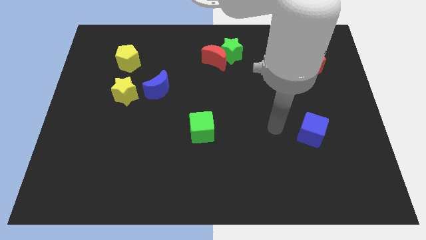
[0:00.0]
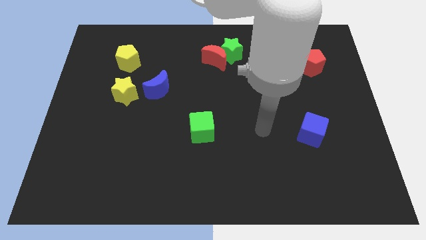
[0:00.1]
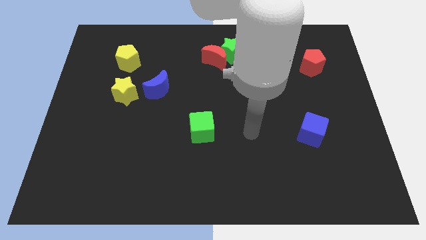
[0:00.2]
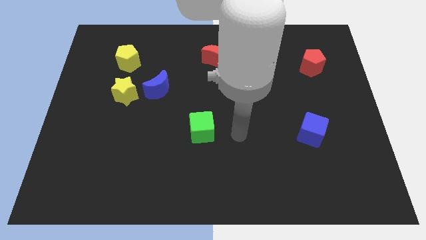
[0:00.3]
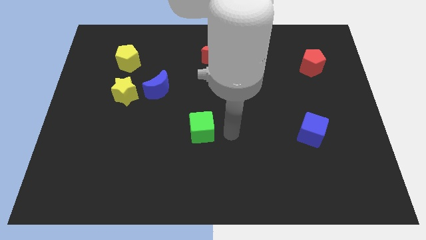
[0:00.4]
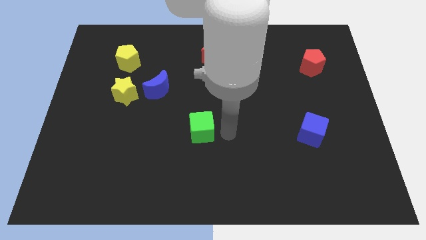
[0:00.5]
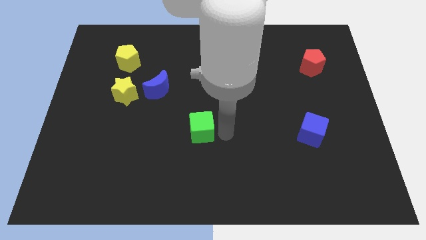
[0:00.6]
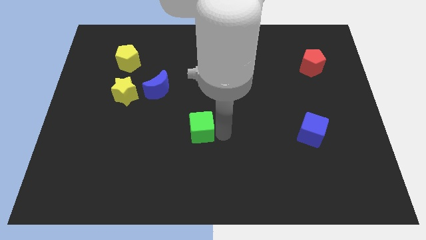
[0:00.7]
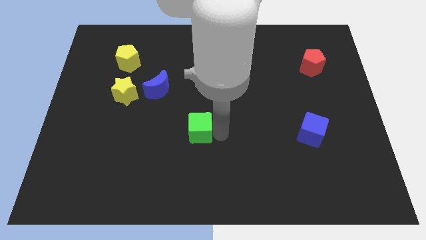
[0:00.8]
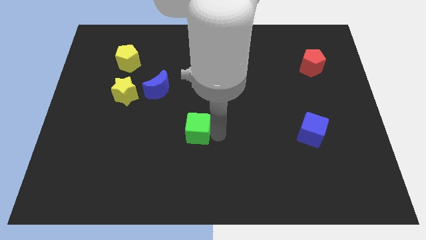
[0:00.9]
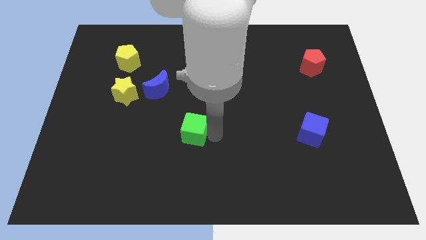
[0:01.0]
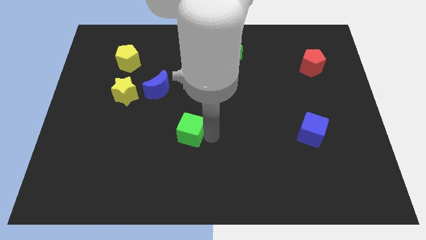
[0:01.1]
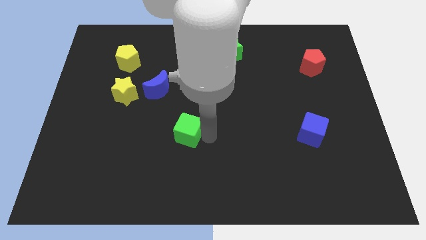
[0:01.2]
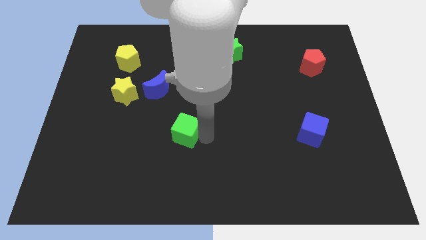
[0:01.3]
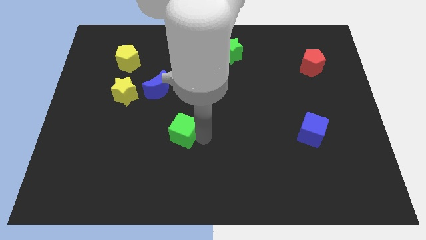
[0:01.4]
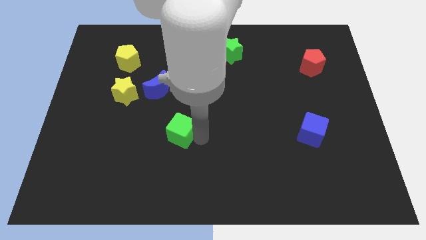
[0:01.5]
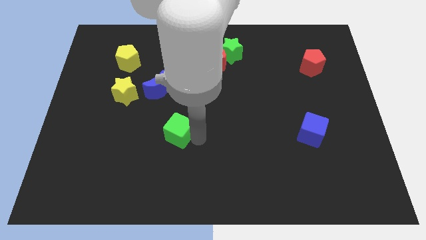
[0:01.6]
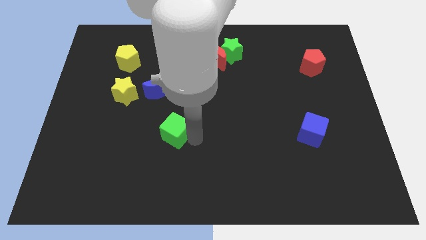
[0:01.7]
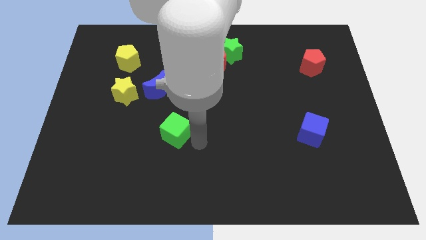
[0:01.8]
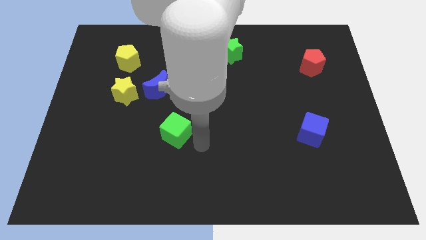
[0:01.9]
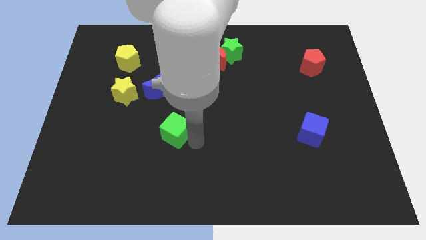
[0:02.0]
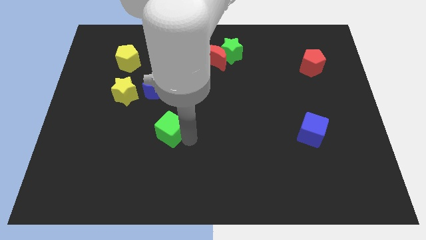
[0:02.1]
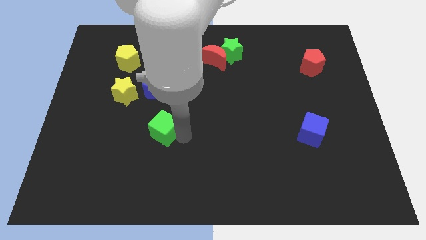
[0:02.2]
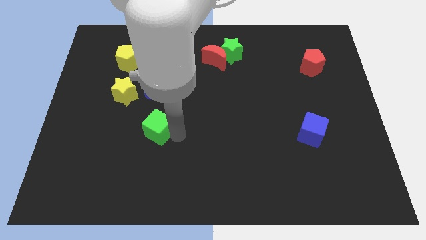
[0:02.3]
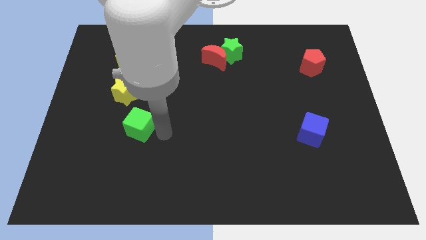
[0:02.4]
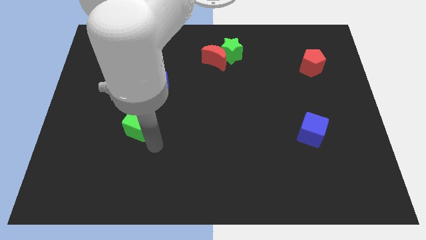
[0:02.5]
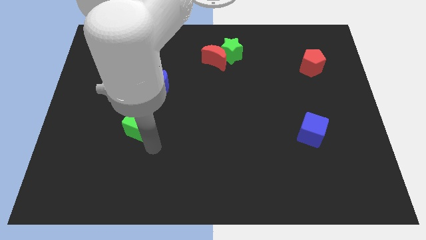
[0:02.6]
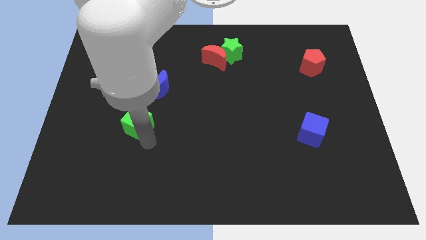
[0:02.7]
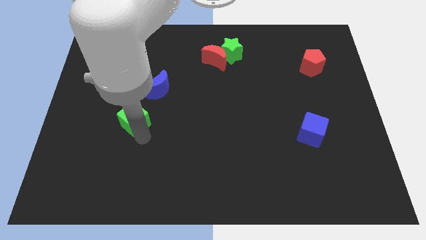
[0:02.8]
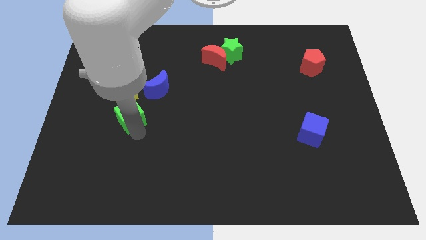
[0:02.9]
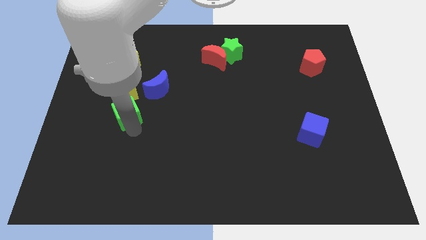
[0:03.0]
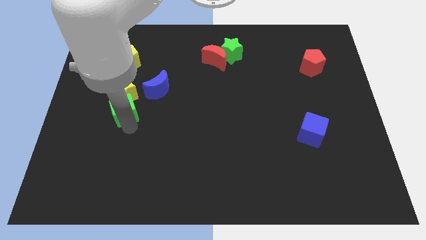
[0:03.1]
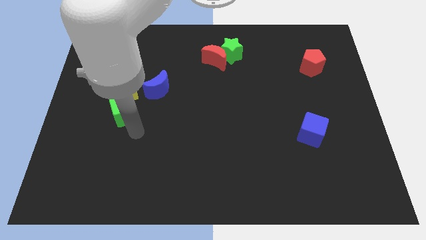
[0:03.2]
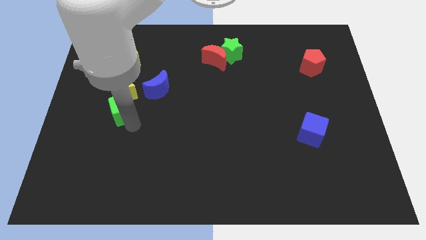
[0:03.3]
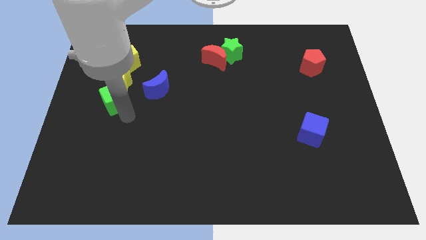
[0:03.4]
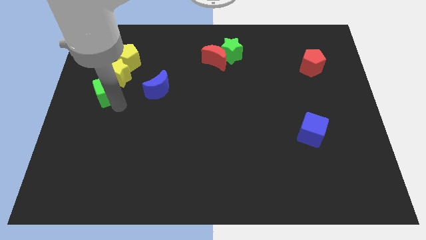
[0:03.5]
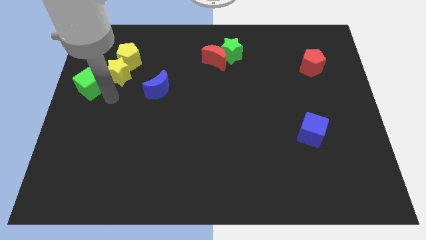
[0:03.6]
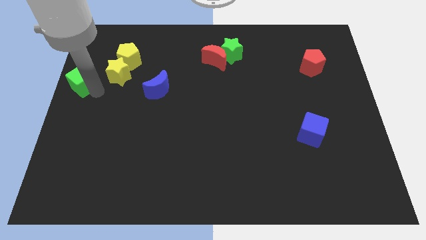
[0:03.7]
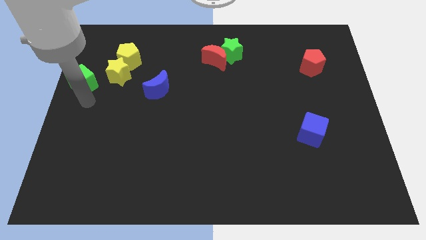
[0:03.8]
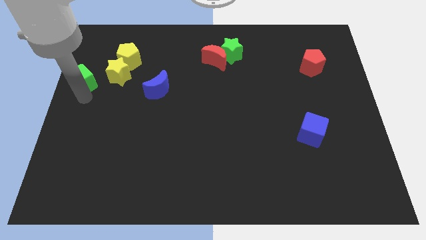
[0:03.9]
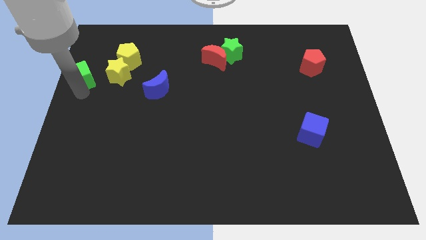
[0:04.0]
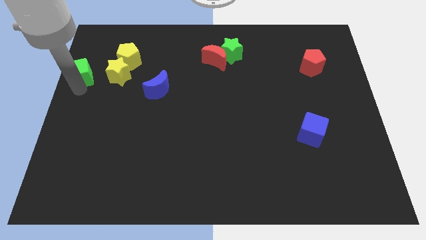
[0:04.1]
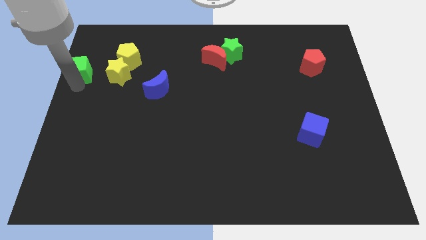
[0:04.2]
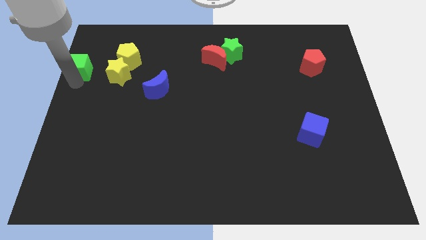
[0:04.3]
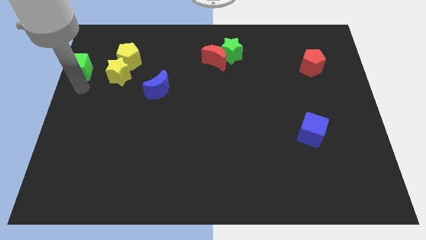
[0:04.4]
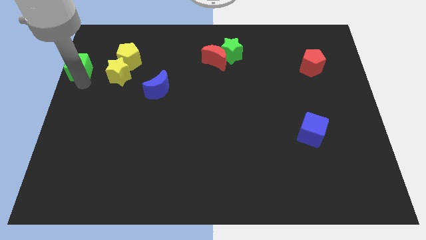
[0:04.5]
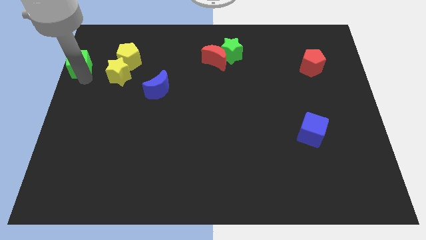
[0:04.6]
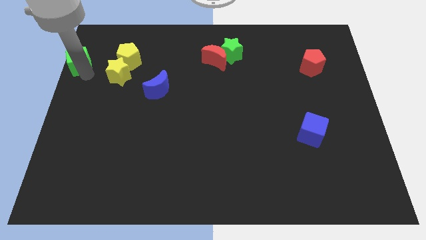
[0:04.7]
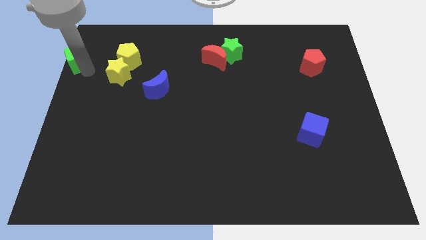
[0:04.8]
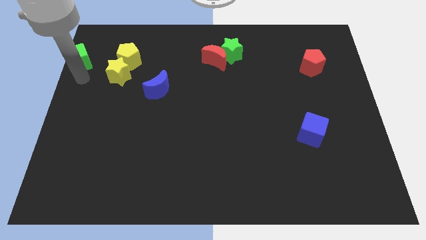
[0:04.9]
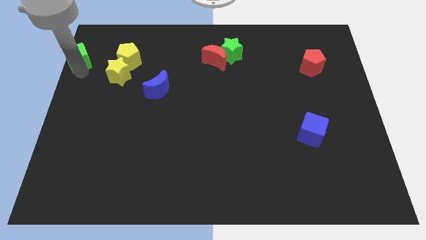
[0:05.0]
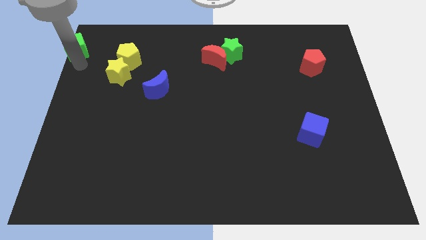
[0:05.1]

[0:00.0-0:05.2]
move the green cube to the top left

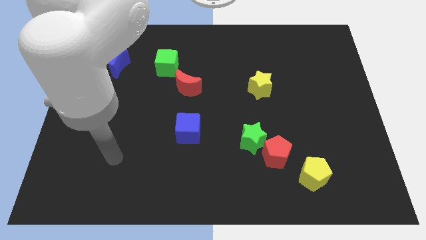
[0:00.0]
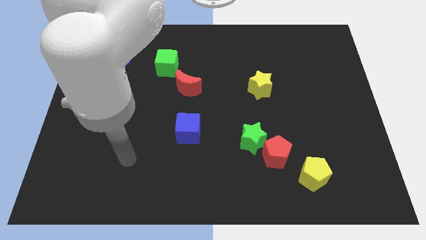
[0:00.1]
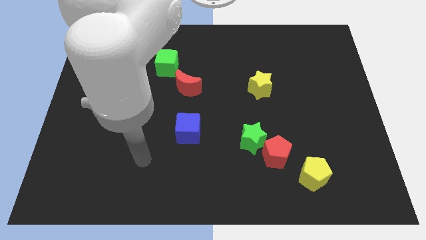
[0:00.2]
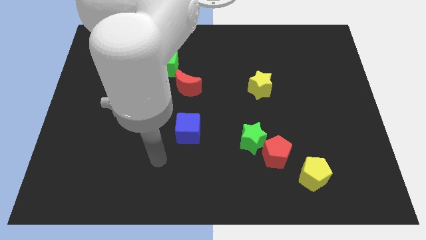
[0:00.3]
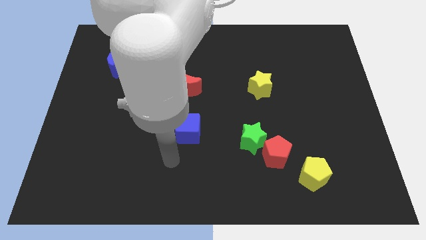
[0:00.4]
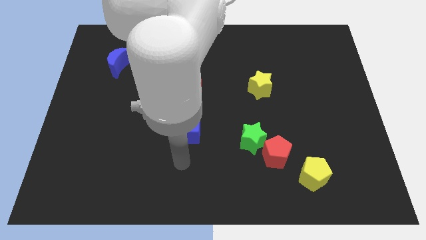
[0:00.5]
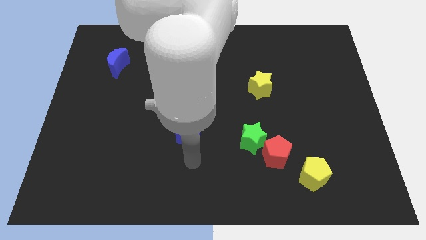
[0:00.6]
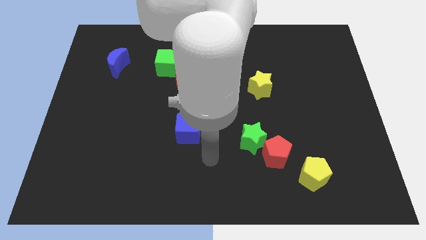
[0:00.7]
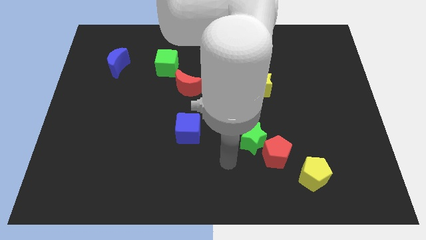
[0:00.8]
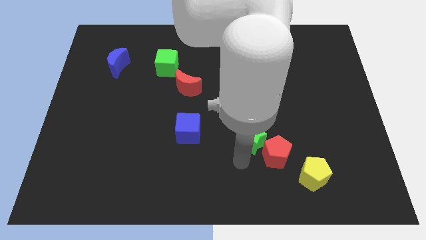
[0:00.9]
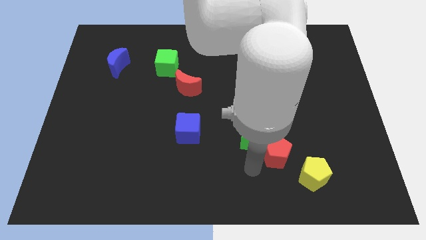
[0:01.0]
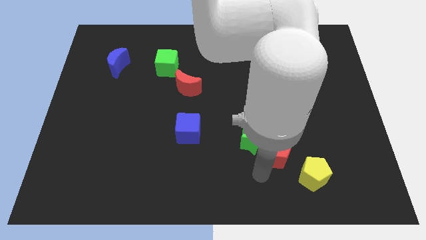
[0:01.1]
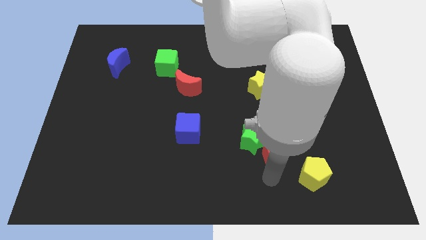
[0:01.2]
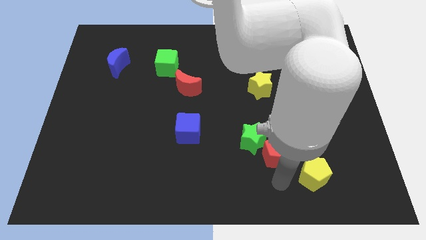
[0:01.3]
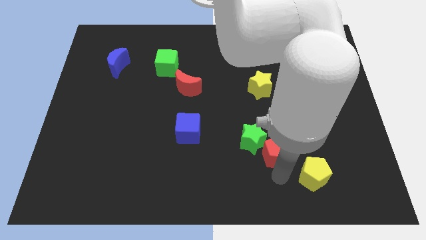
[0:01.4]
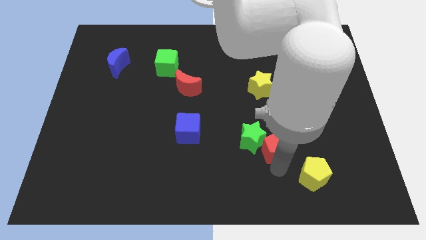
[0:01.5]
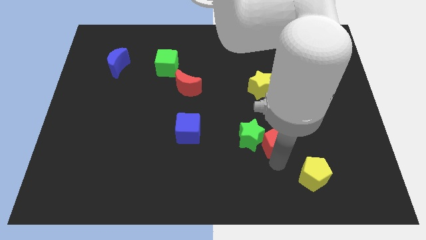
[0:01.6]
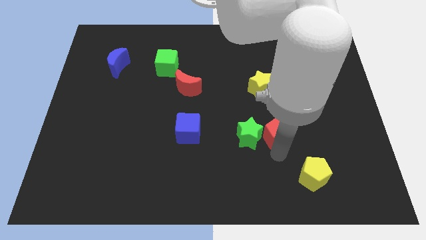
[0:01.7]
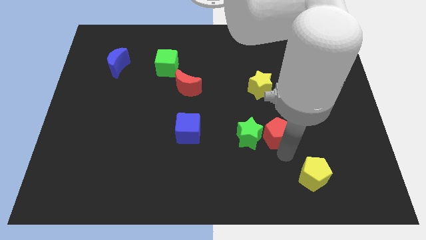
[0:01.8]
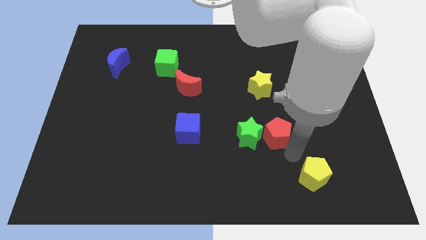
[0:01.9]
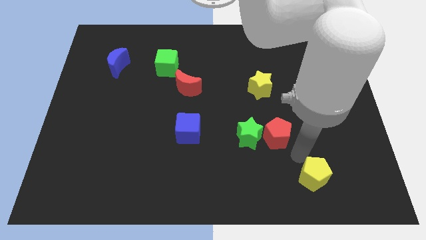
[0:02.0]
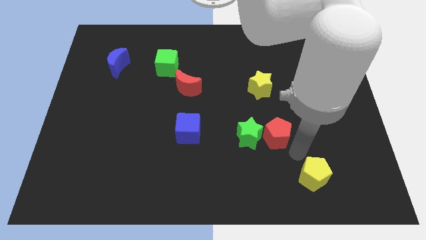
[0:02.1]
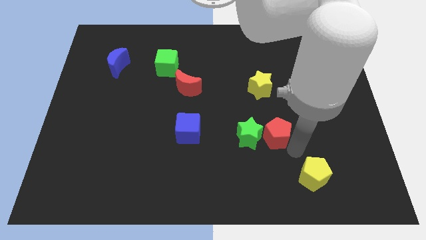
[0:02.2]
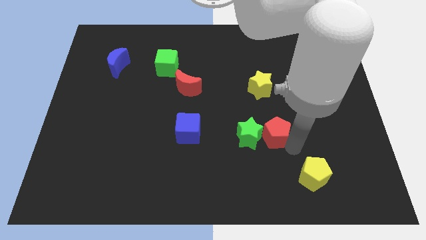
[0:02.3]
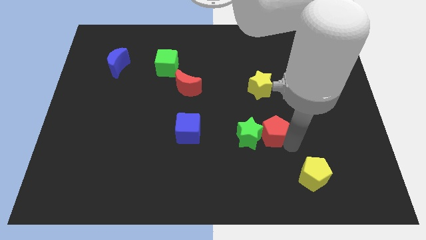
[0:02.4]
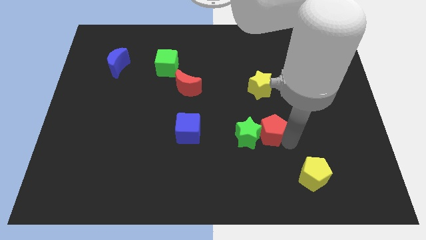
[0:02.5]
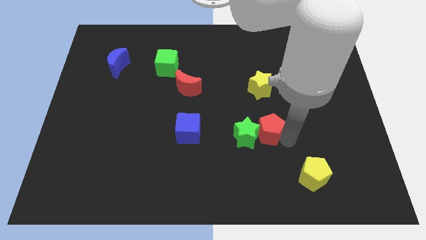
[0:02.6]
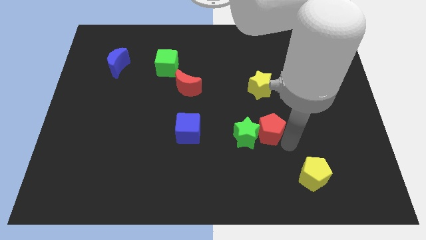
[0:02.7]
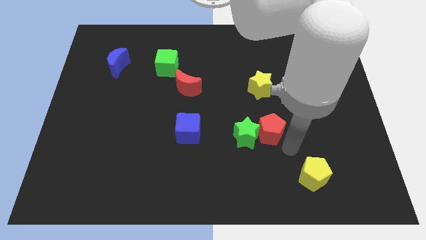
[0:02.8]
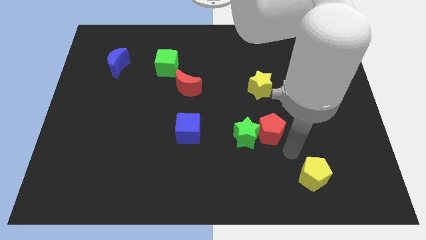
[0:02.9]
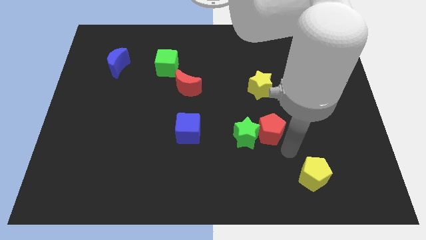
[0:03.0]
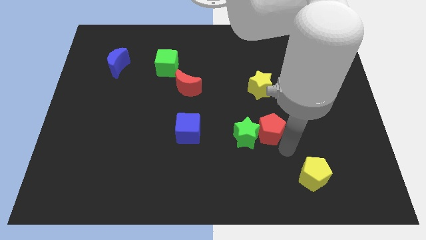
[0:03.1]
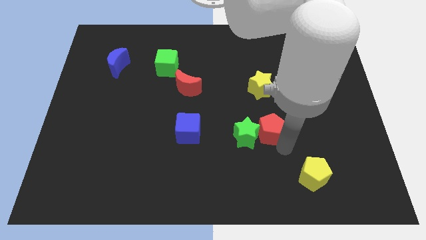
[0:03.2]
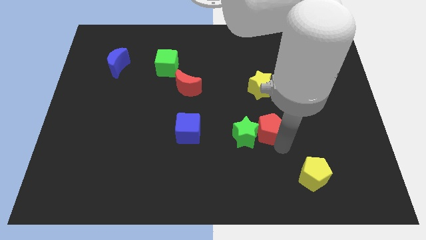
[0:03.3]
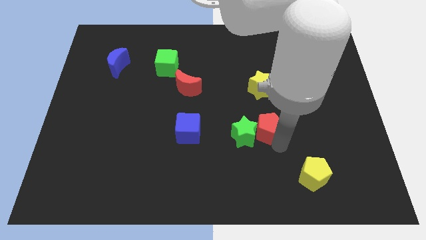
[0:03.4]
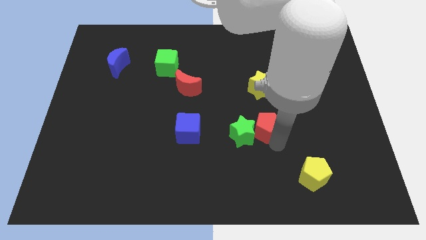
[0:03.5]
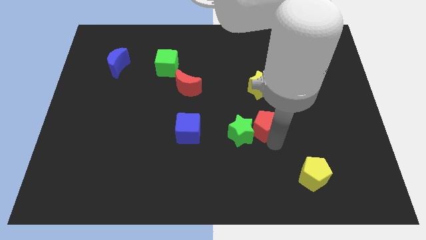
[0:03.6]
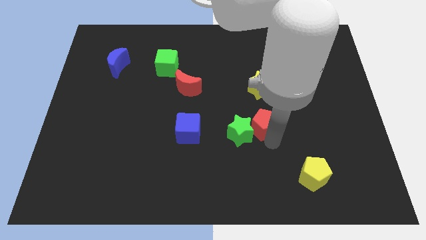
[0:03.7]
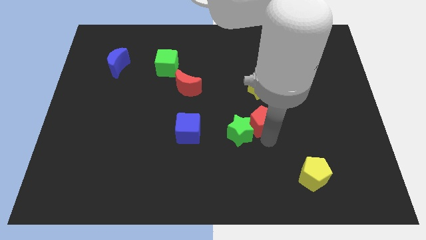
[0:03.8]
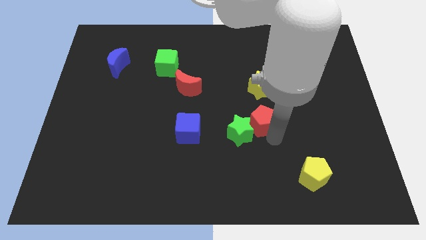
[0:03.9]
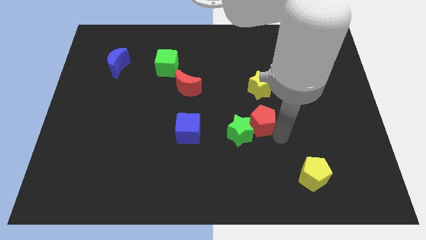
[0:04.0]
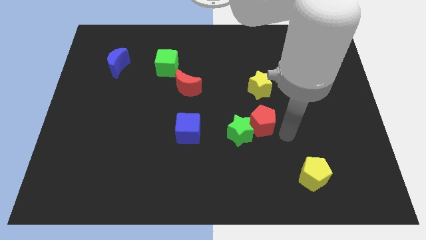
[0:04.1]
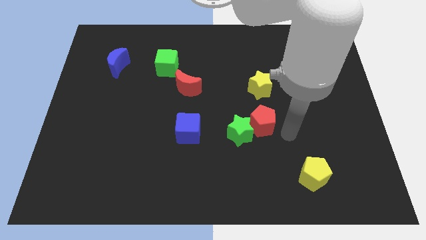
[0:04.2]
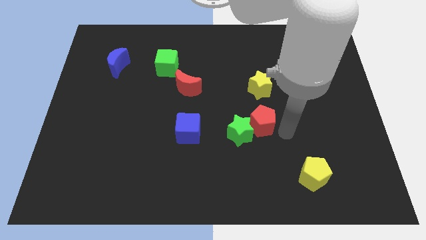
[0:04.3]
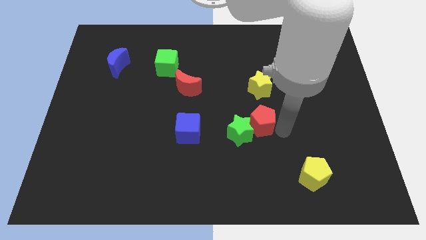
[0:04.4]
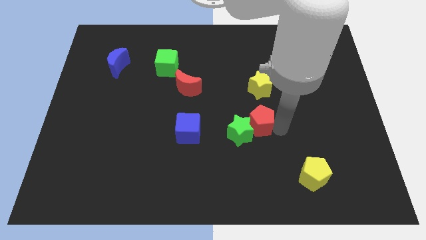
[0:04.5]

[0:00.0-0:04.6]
put the red pentagon to the middle of the board
